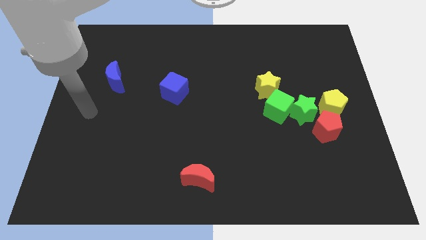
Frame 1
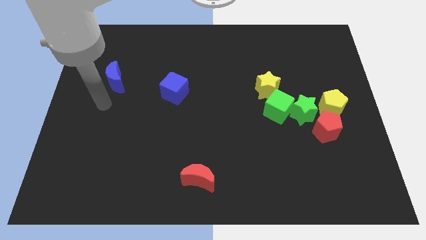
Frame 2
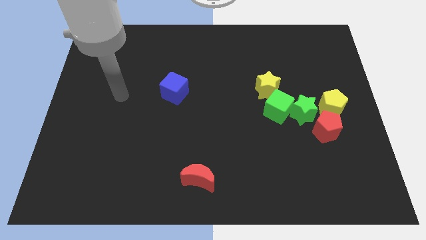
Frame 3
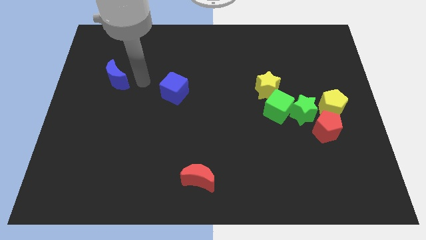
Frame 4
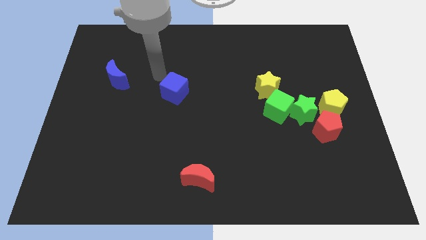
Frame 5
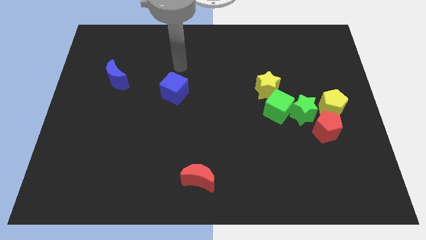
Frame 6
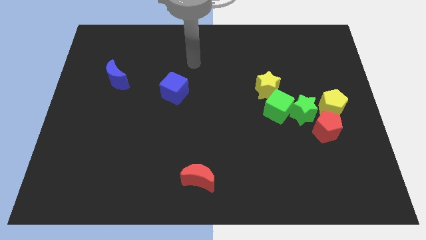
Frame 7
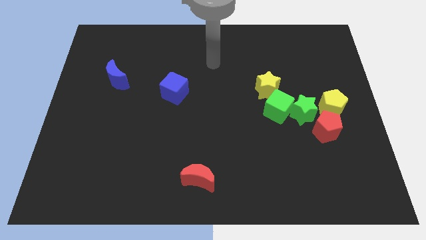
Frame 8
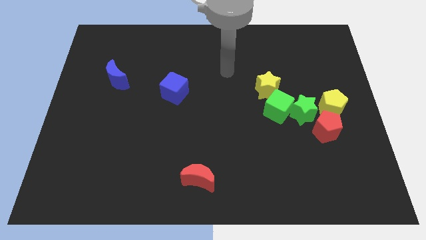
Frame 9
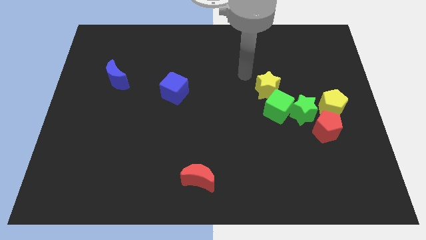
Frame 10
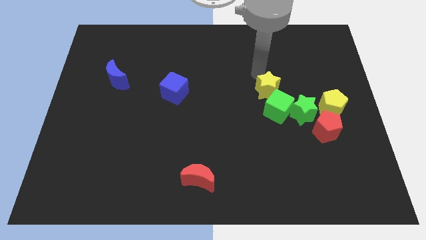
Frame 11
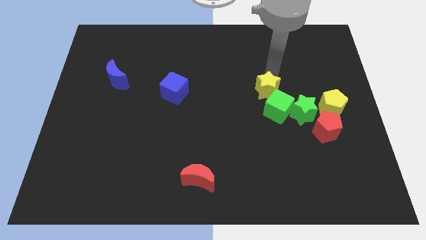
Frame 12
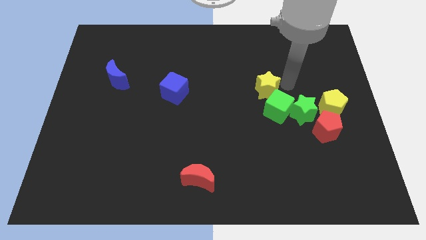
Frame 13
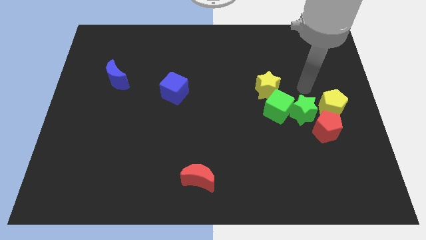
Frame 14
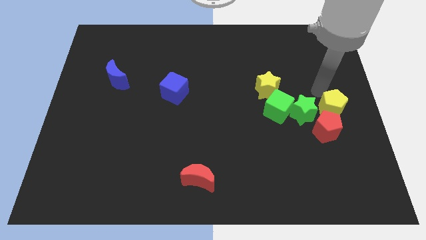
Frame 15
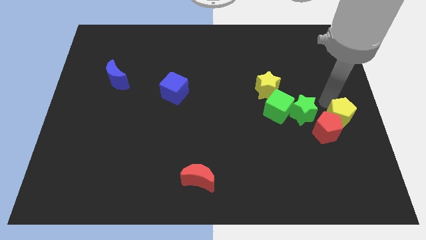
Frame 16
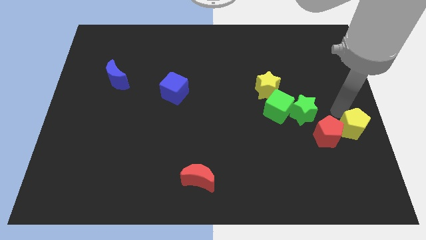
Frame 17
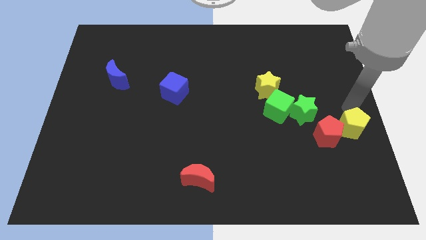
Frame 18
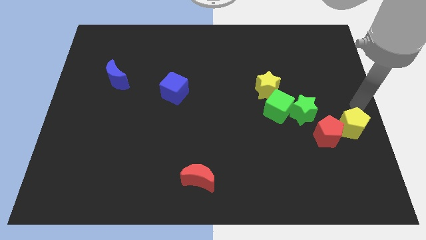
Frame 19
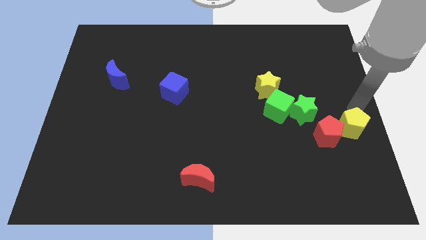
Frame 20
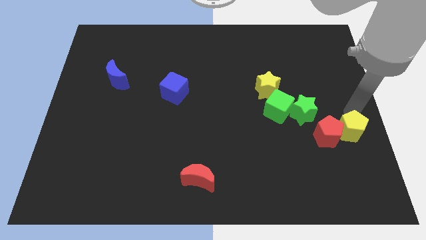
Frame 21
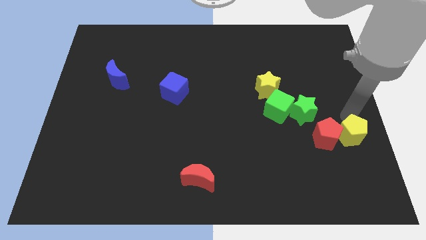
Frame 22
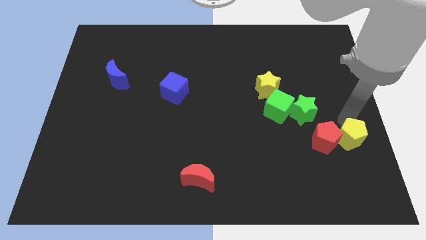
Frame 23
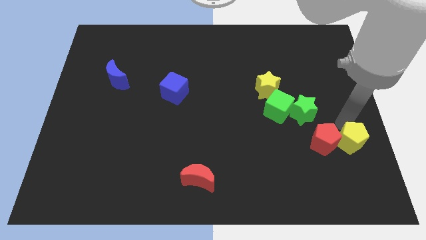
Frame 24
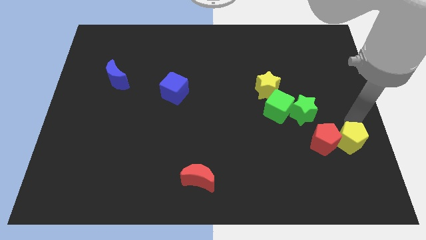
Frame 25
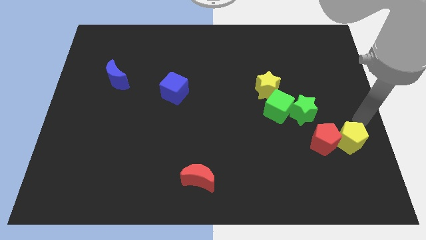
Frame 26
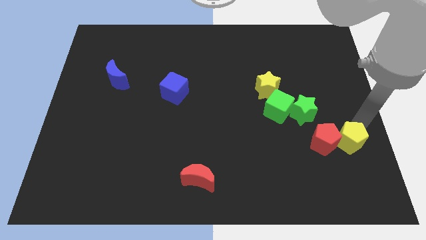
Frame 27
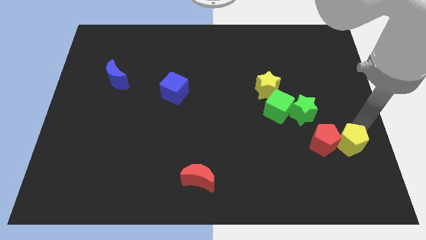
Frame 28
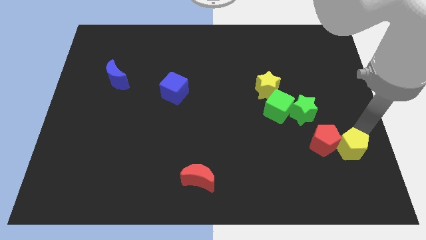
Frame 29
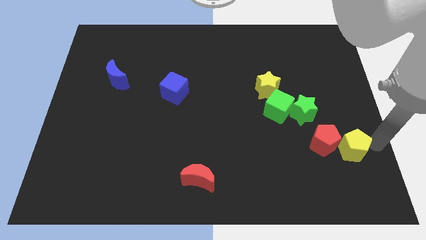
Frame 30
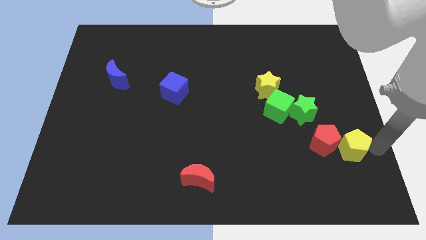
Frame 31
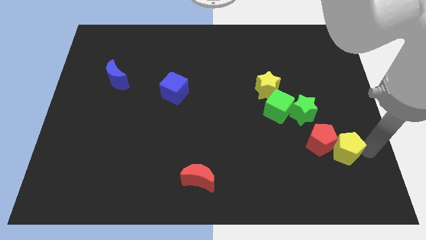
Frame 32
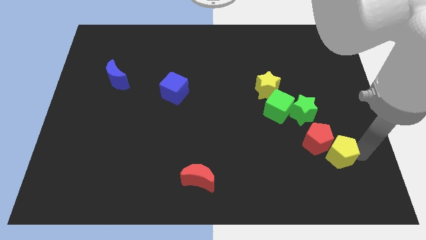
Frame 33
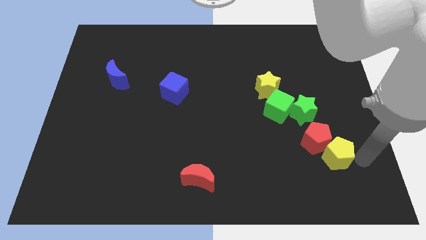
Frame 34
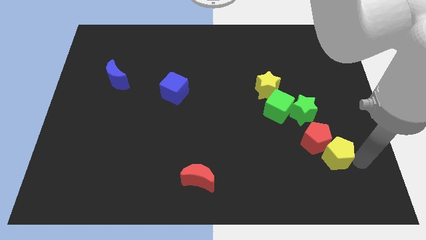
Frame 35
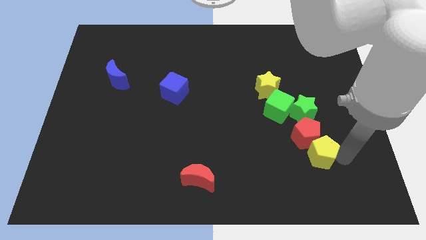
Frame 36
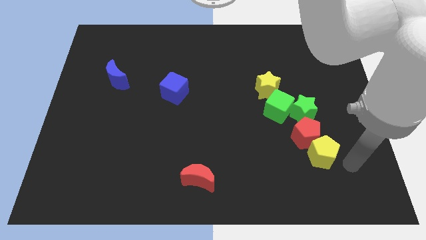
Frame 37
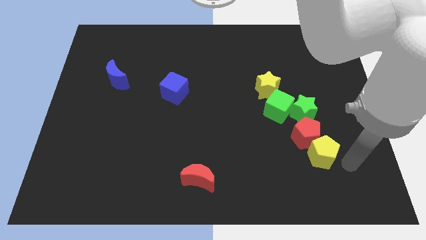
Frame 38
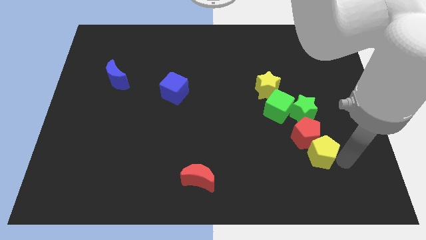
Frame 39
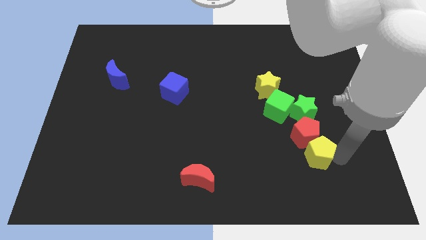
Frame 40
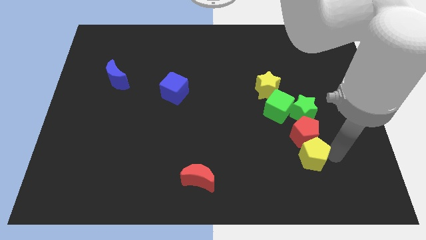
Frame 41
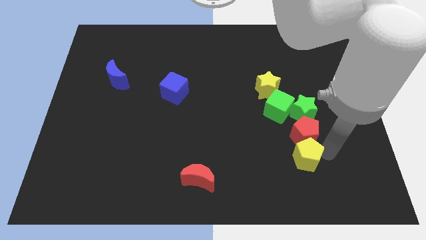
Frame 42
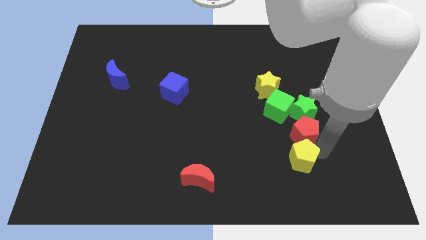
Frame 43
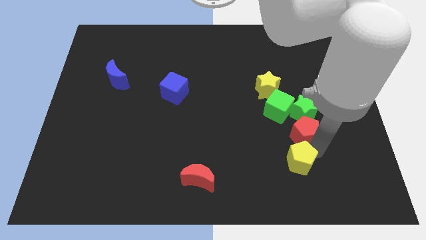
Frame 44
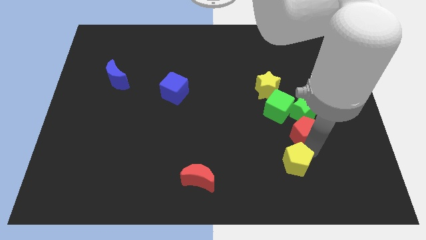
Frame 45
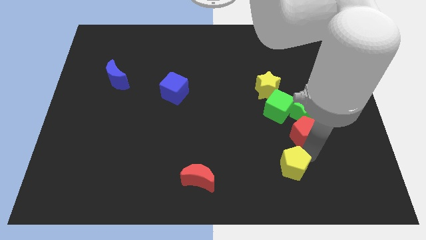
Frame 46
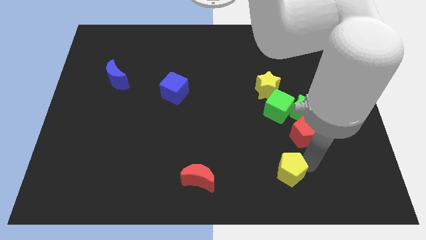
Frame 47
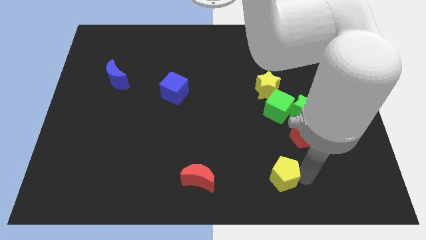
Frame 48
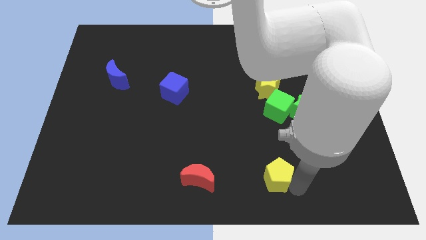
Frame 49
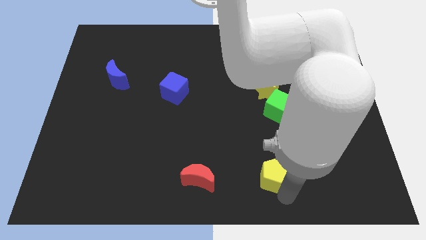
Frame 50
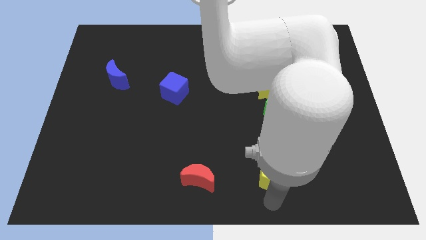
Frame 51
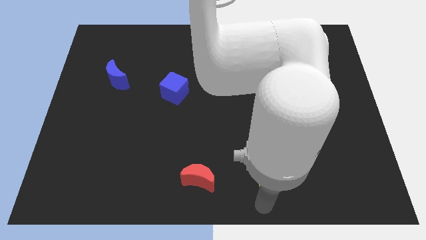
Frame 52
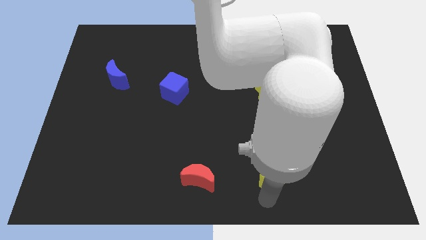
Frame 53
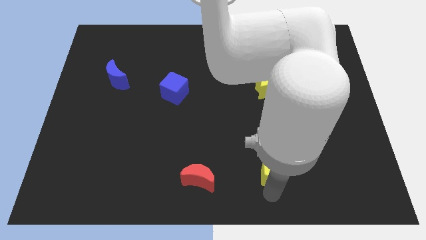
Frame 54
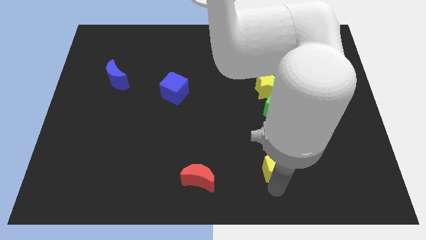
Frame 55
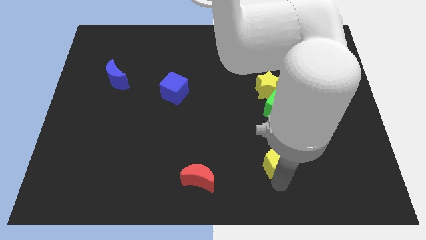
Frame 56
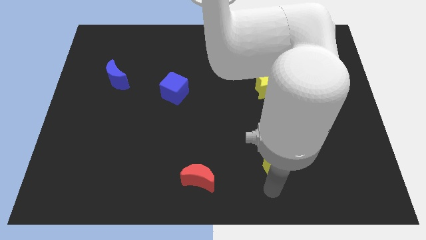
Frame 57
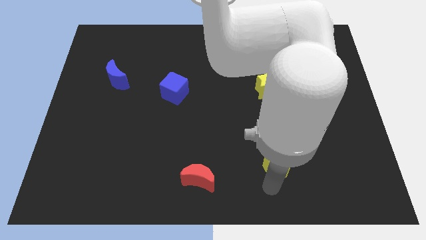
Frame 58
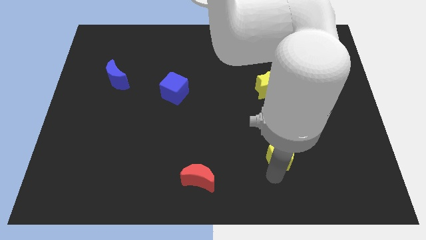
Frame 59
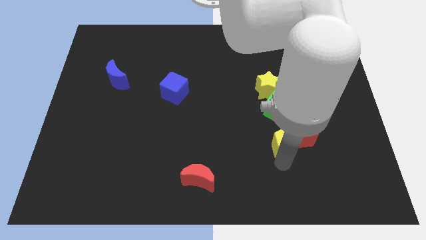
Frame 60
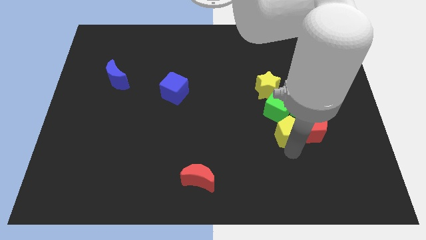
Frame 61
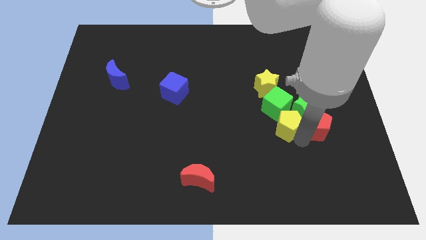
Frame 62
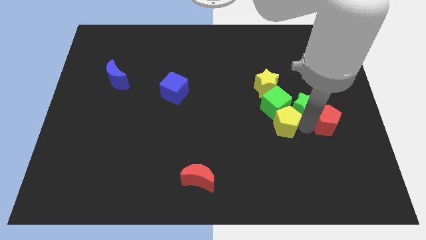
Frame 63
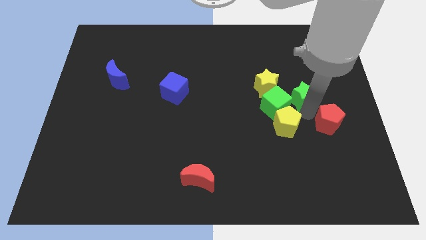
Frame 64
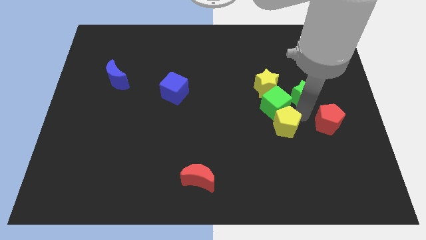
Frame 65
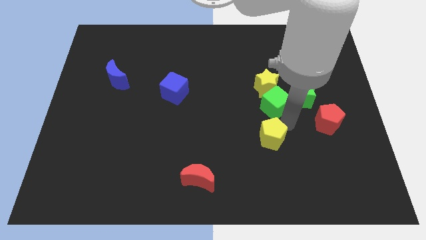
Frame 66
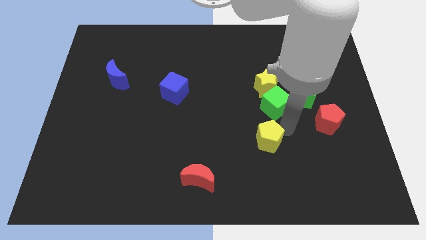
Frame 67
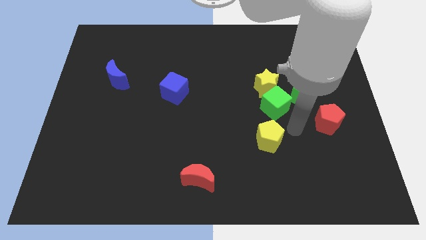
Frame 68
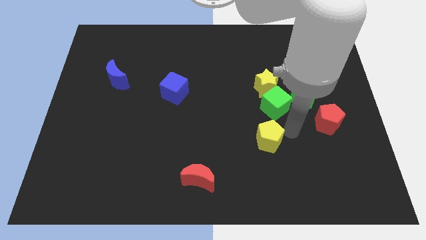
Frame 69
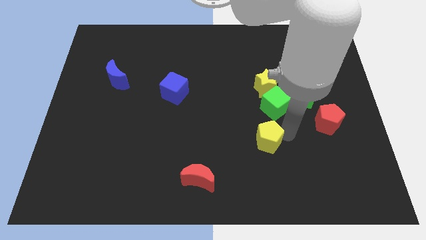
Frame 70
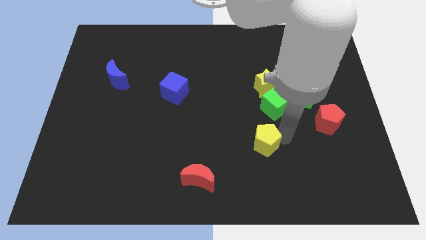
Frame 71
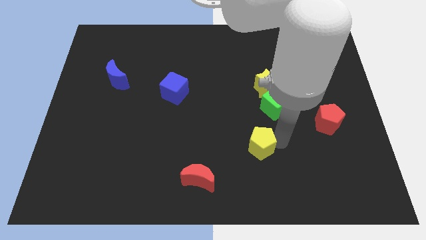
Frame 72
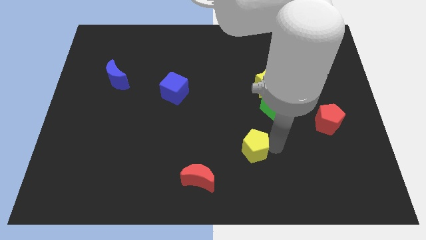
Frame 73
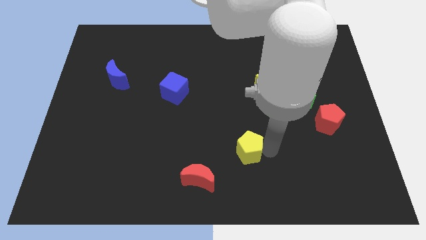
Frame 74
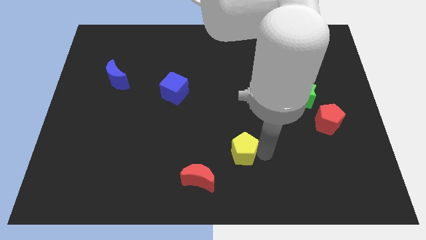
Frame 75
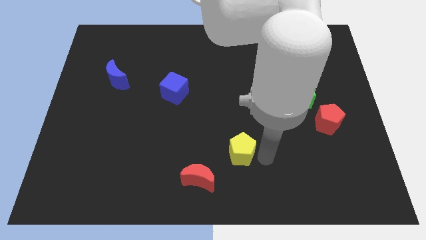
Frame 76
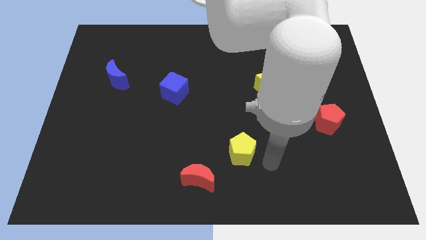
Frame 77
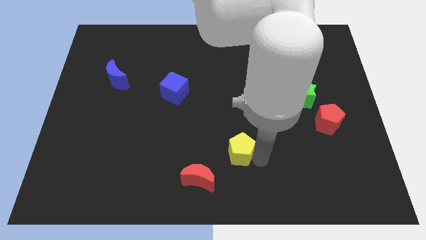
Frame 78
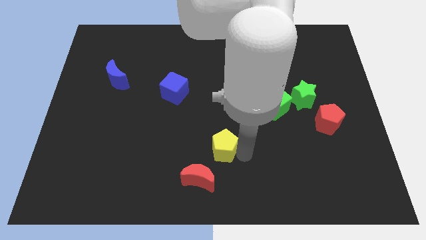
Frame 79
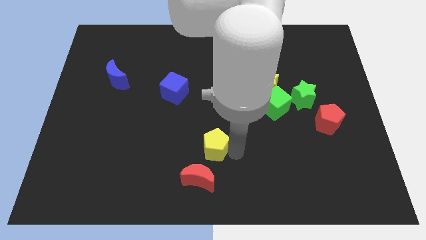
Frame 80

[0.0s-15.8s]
move the yellow pentagon to the top of the red moon
